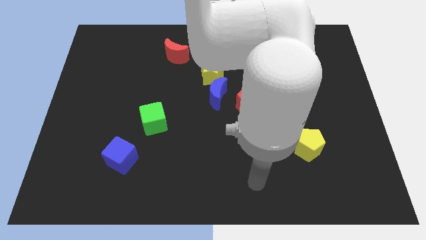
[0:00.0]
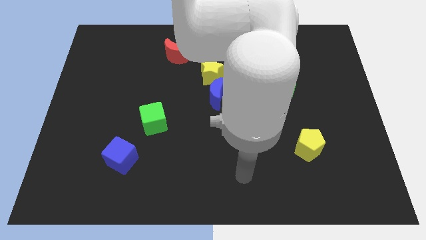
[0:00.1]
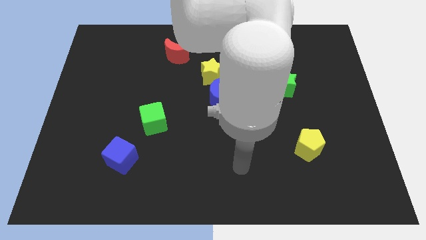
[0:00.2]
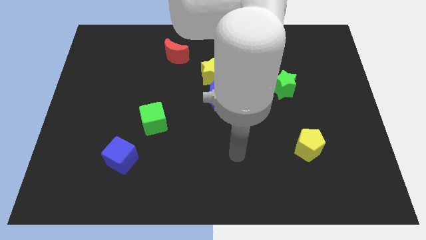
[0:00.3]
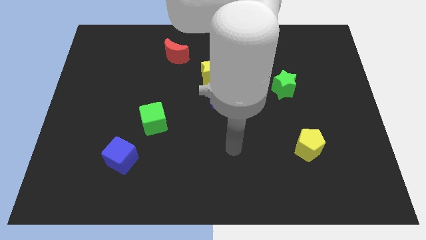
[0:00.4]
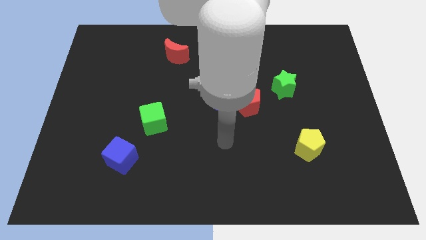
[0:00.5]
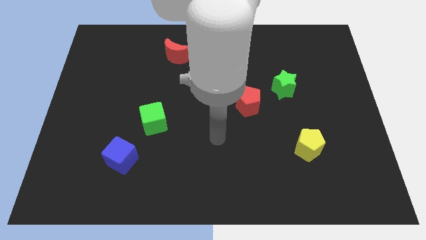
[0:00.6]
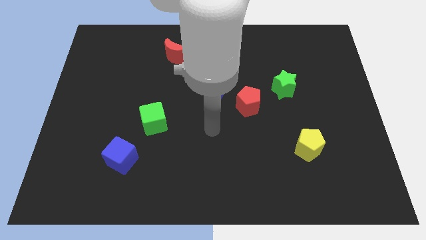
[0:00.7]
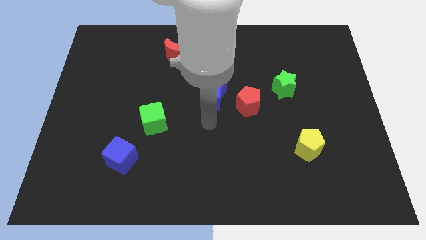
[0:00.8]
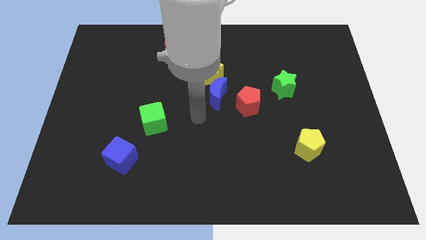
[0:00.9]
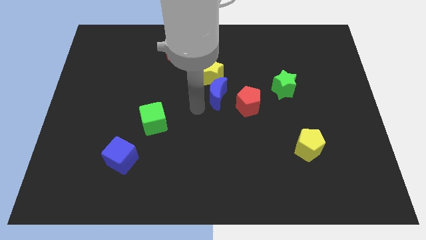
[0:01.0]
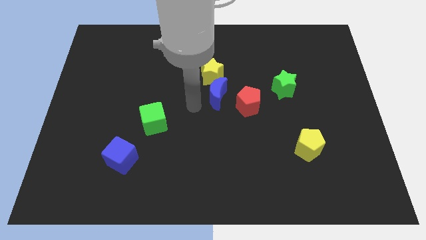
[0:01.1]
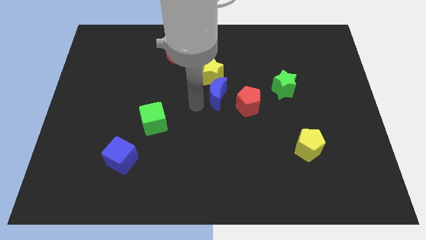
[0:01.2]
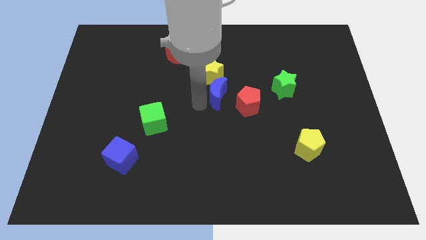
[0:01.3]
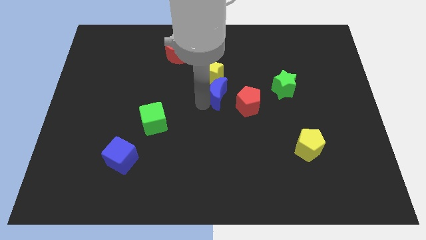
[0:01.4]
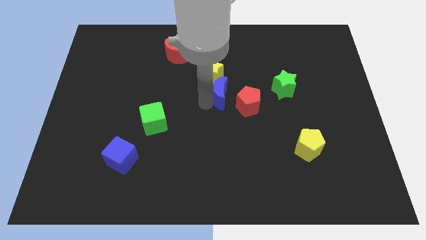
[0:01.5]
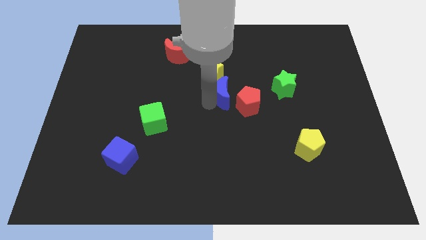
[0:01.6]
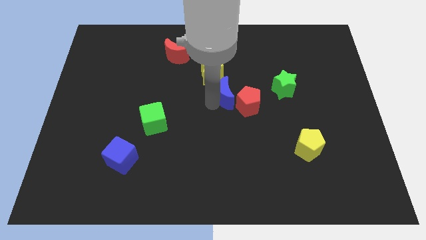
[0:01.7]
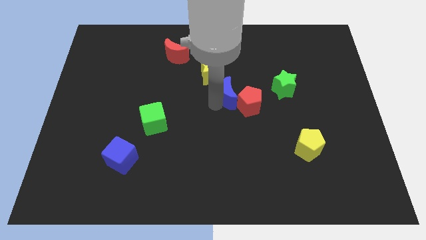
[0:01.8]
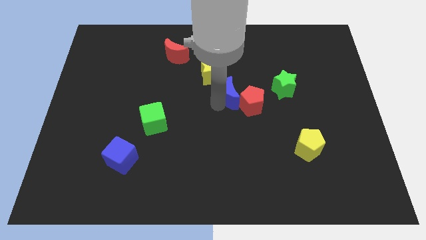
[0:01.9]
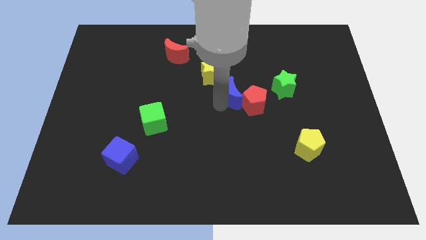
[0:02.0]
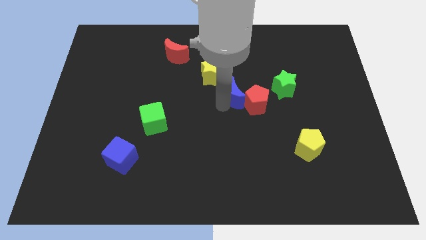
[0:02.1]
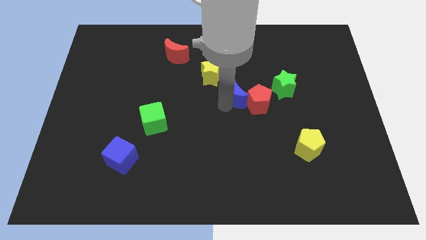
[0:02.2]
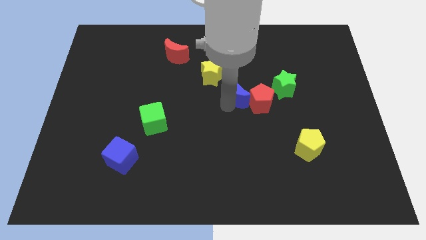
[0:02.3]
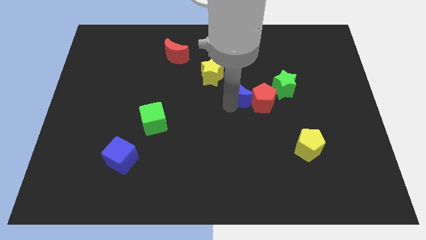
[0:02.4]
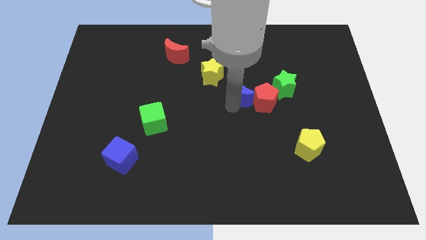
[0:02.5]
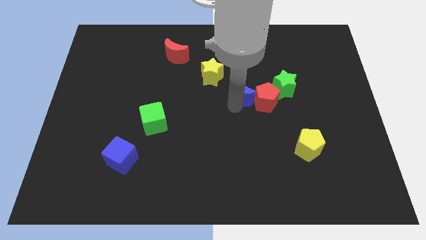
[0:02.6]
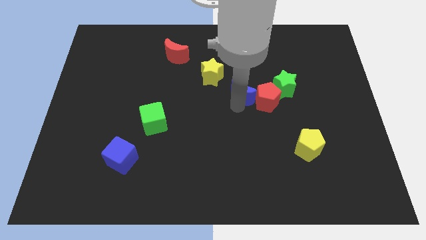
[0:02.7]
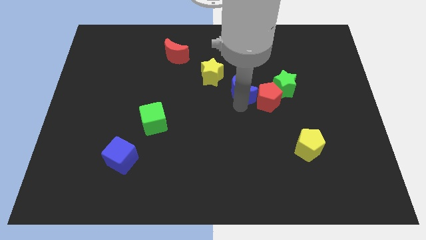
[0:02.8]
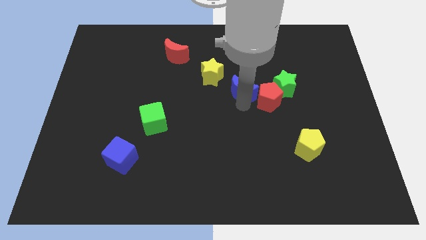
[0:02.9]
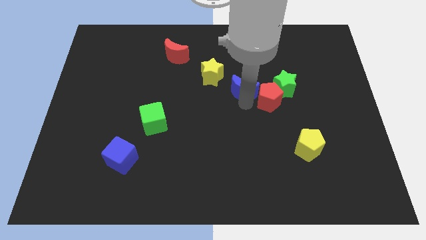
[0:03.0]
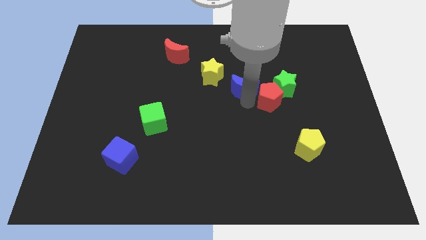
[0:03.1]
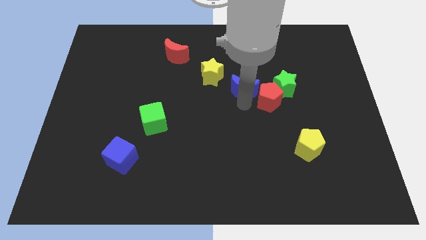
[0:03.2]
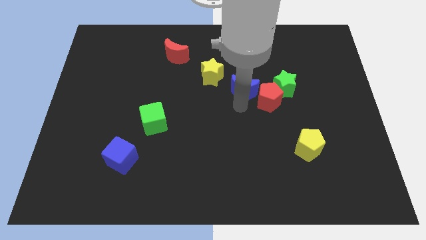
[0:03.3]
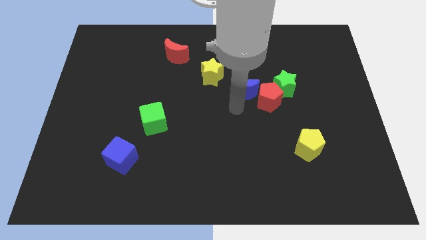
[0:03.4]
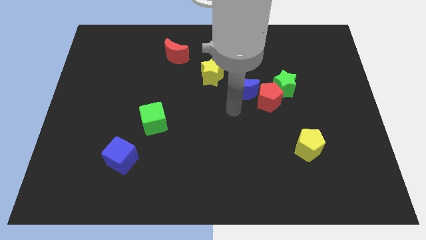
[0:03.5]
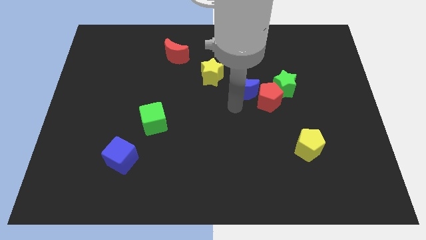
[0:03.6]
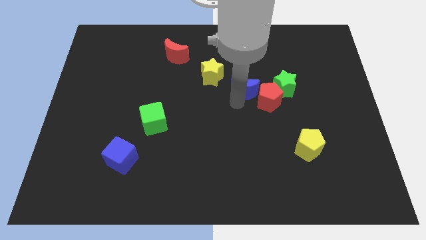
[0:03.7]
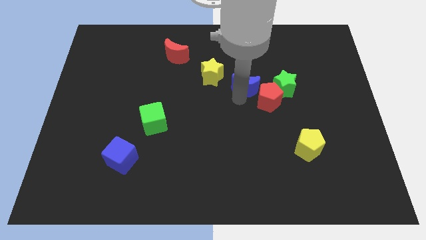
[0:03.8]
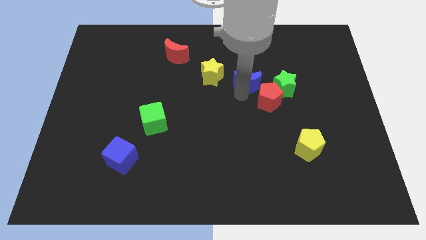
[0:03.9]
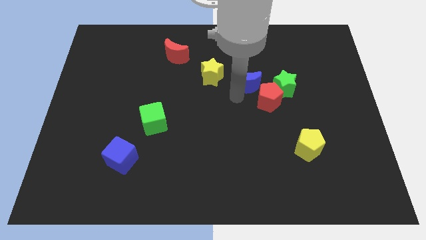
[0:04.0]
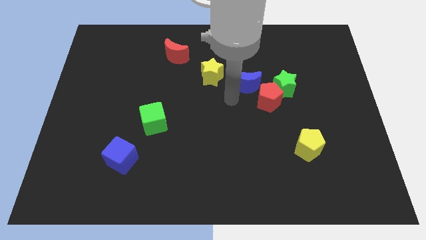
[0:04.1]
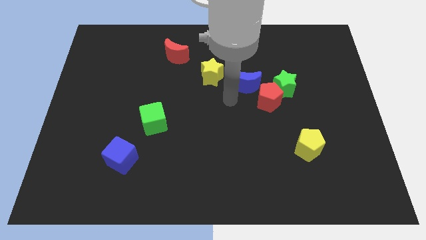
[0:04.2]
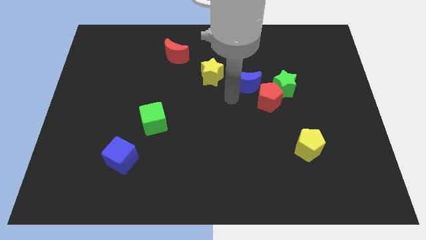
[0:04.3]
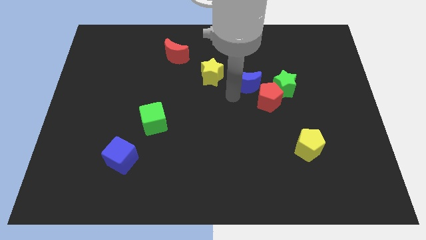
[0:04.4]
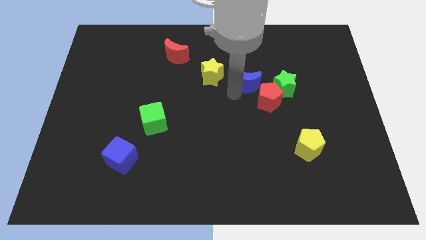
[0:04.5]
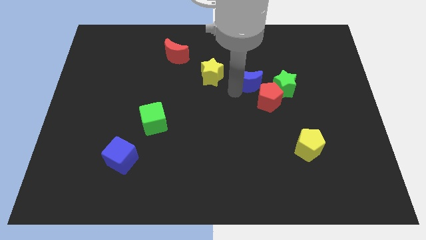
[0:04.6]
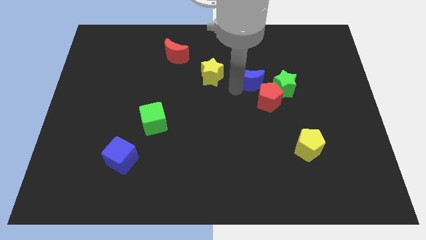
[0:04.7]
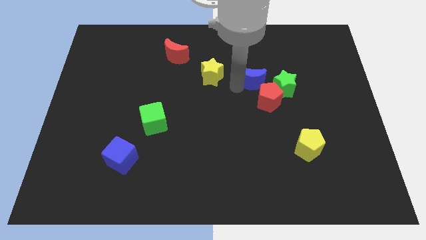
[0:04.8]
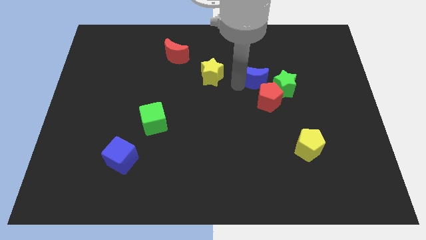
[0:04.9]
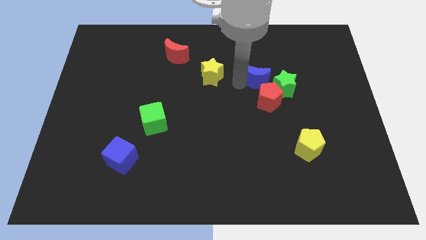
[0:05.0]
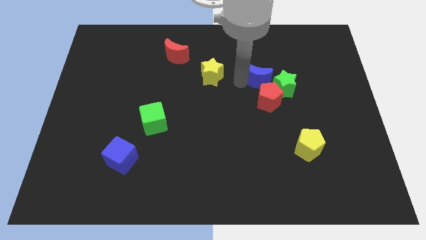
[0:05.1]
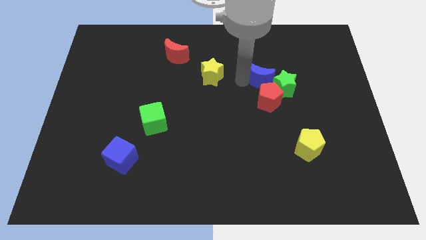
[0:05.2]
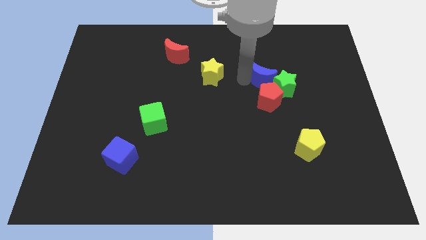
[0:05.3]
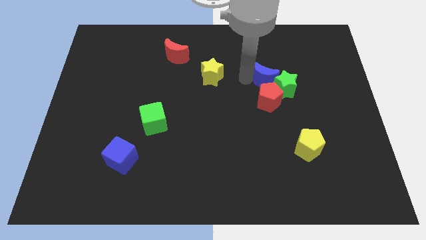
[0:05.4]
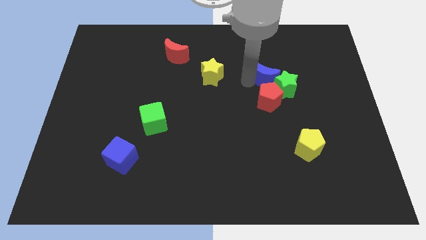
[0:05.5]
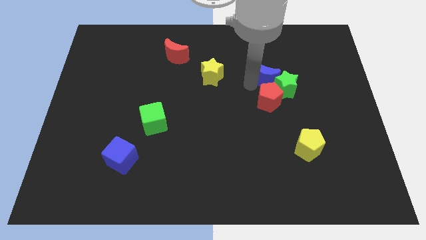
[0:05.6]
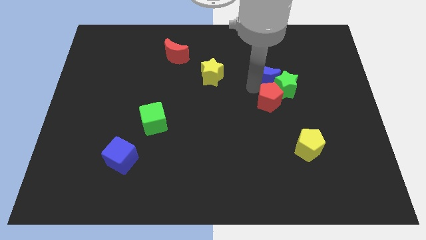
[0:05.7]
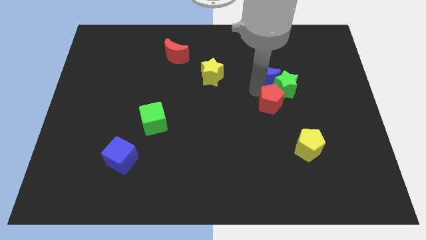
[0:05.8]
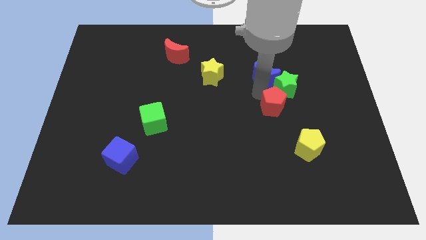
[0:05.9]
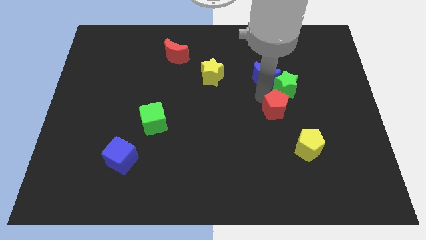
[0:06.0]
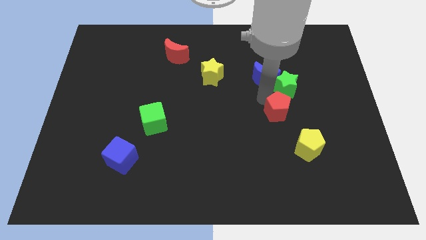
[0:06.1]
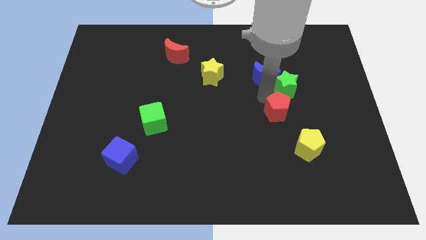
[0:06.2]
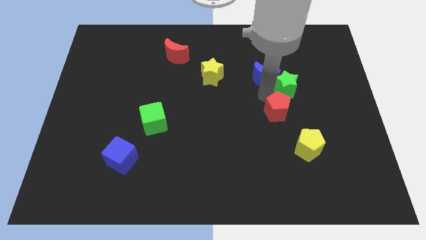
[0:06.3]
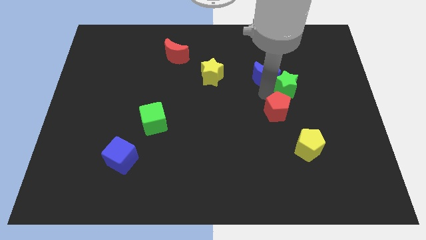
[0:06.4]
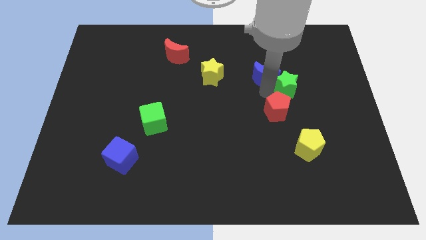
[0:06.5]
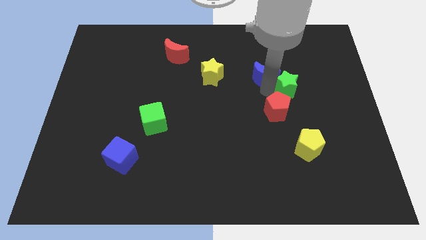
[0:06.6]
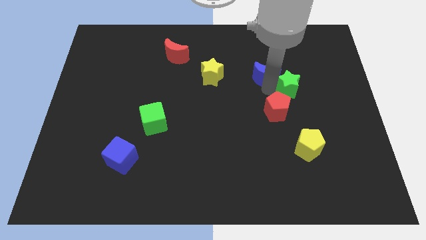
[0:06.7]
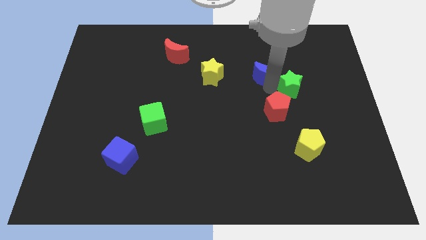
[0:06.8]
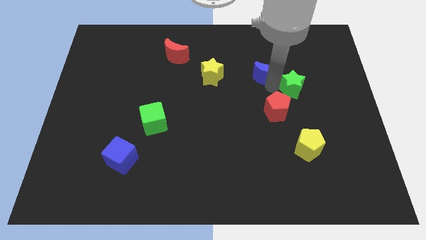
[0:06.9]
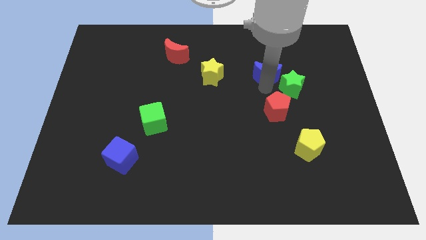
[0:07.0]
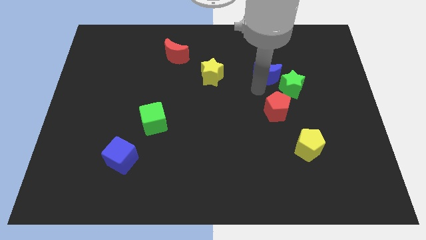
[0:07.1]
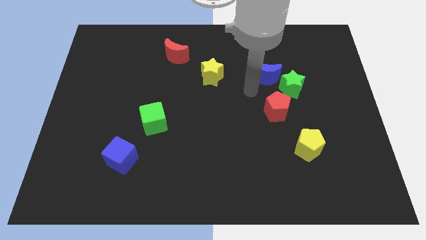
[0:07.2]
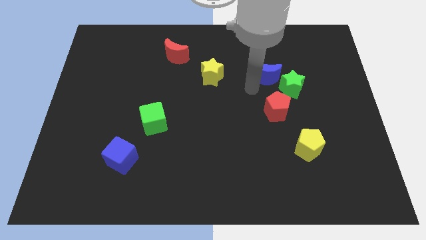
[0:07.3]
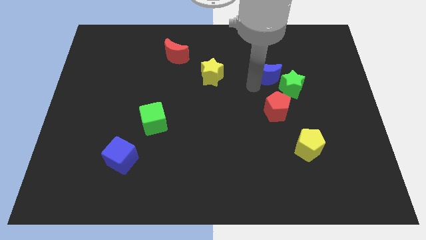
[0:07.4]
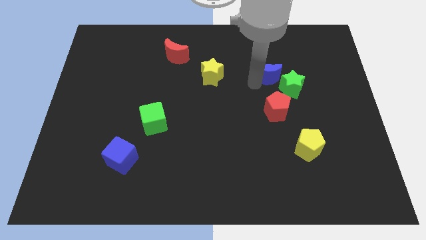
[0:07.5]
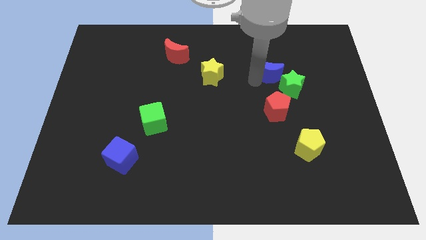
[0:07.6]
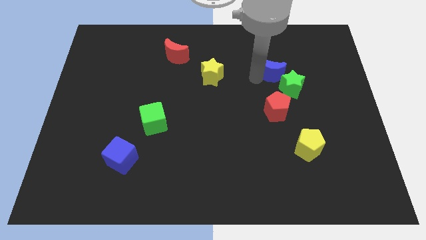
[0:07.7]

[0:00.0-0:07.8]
move the blue moon to the top side of the green star
